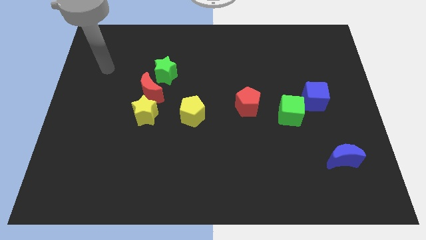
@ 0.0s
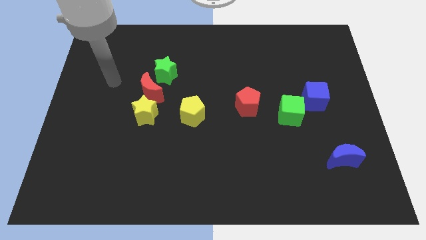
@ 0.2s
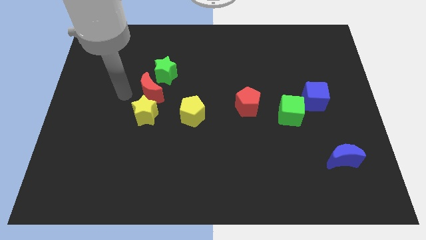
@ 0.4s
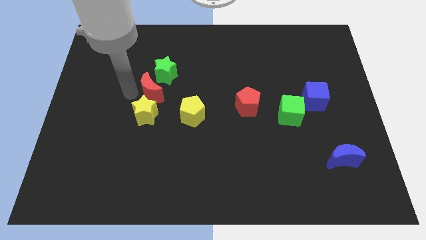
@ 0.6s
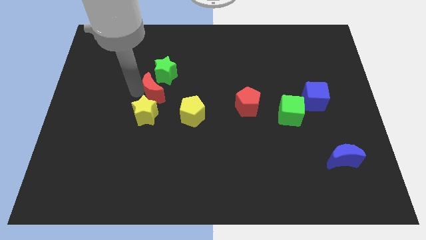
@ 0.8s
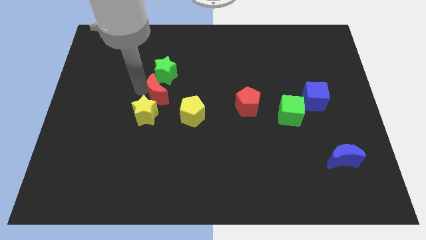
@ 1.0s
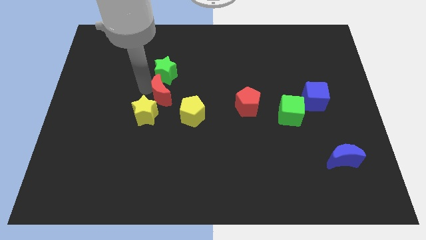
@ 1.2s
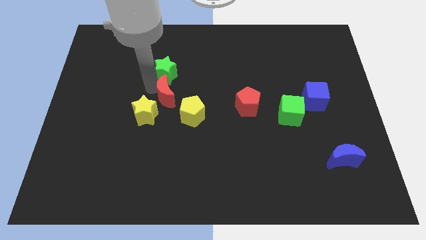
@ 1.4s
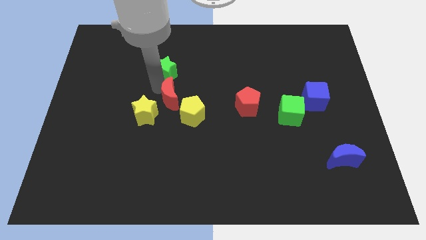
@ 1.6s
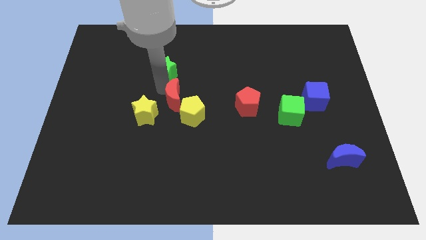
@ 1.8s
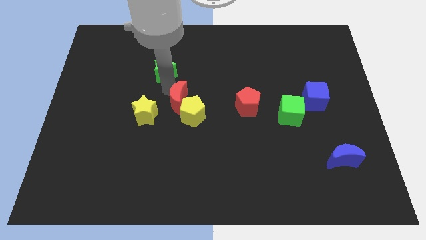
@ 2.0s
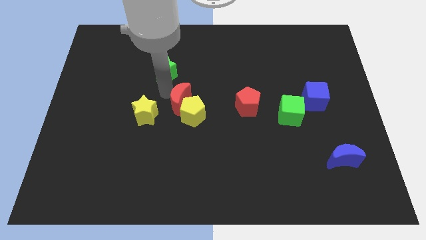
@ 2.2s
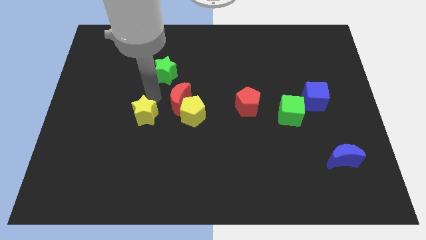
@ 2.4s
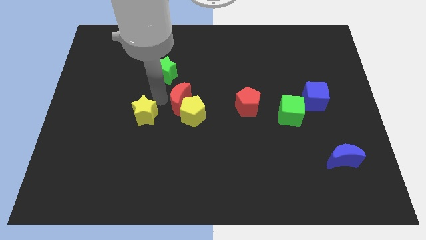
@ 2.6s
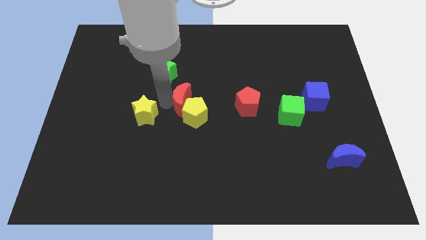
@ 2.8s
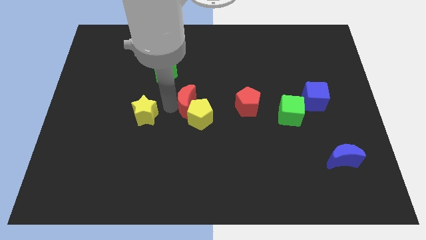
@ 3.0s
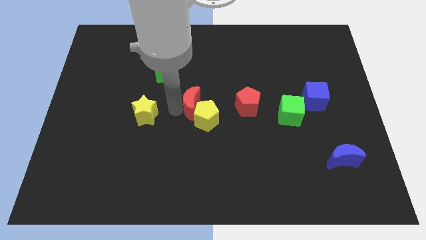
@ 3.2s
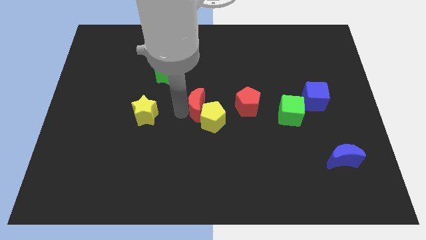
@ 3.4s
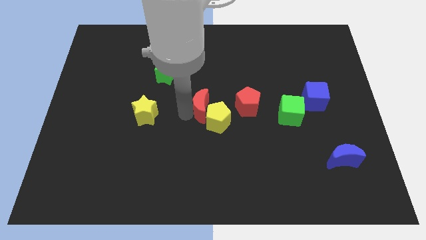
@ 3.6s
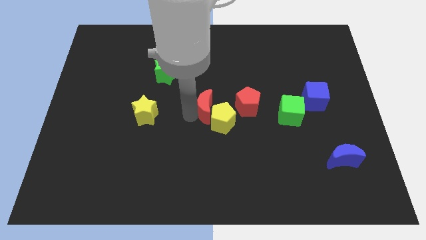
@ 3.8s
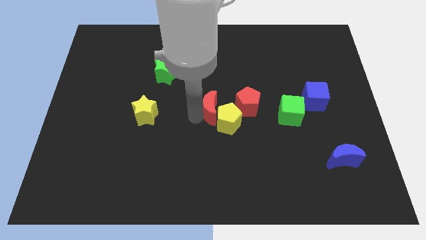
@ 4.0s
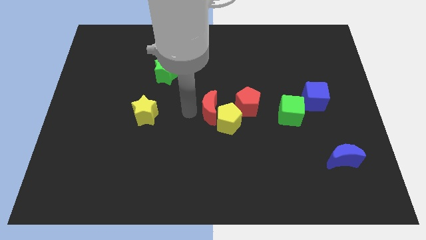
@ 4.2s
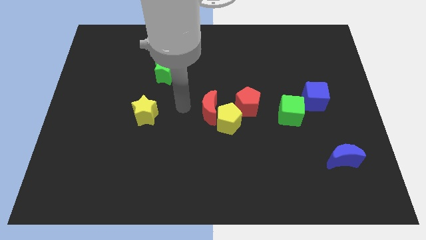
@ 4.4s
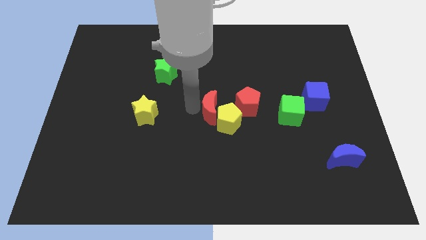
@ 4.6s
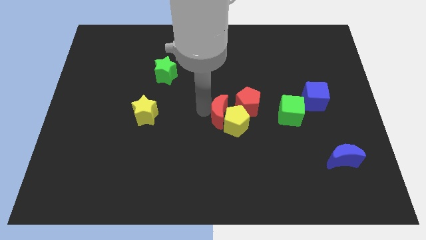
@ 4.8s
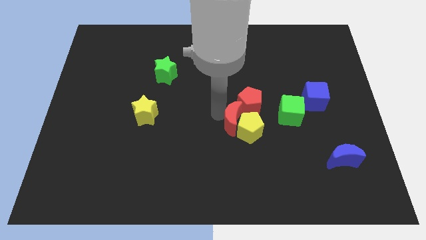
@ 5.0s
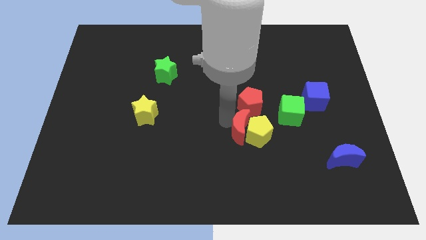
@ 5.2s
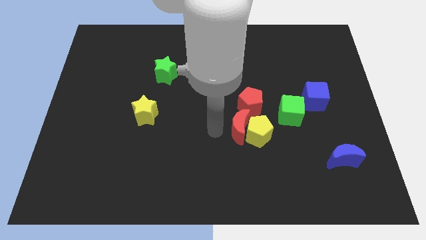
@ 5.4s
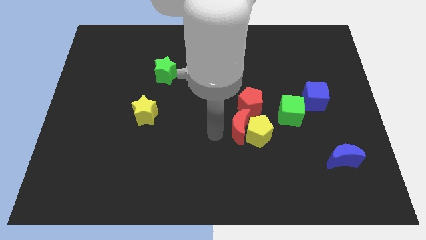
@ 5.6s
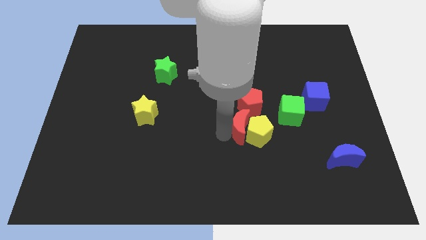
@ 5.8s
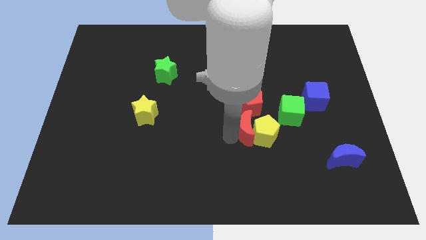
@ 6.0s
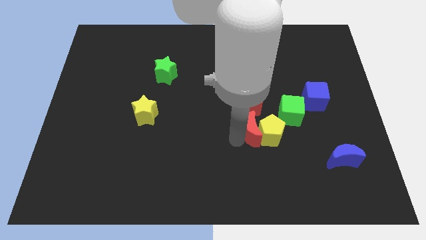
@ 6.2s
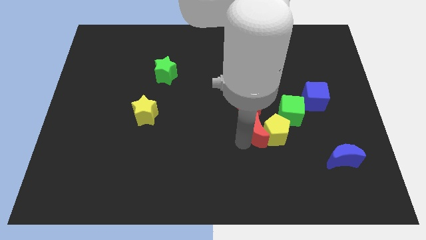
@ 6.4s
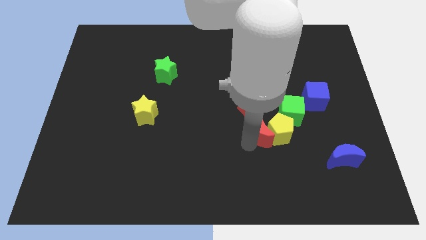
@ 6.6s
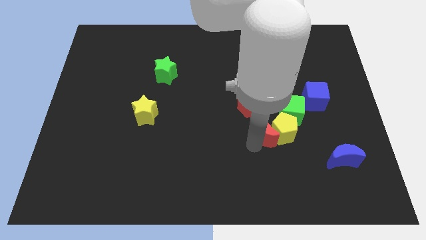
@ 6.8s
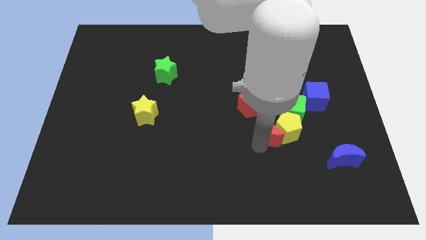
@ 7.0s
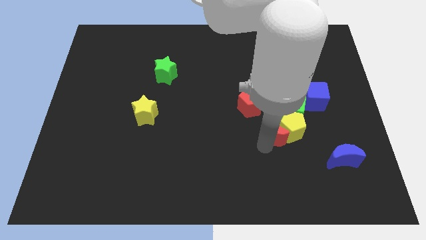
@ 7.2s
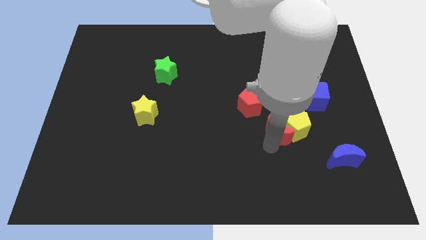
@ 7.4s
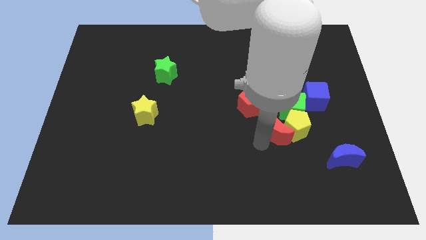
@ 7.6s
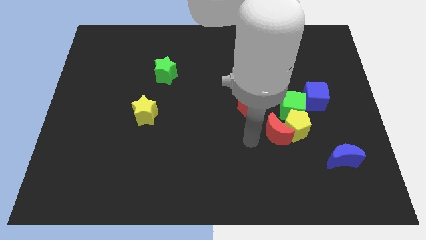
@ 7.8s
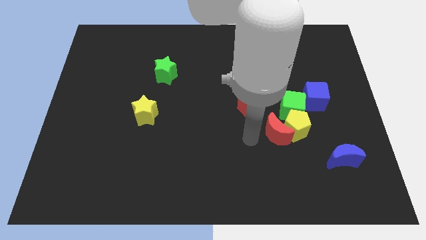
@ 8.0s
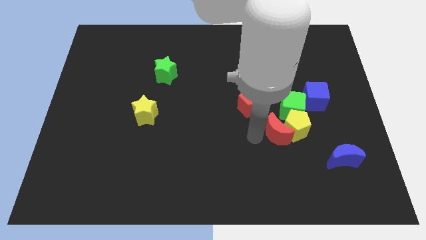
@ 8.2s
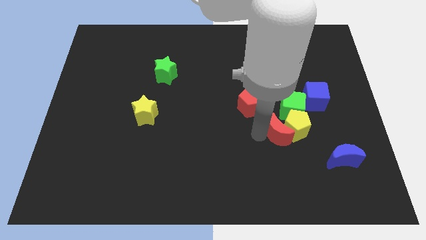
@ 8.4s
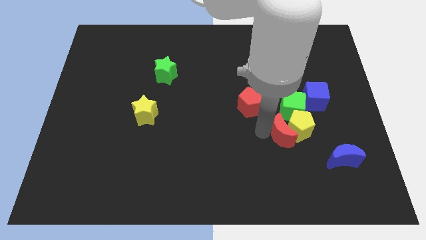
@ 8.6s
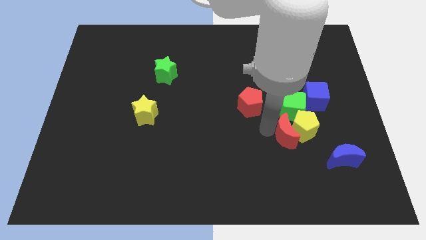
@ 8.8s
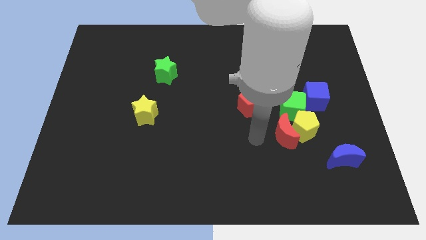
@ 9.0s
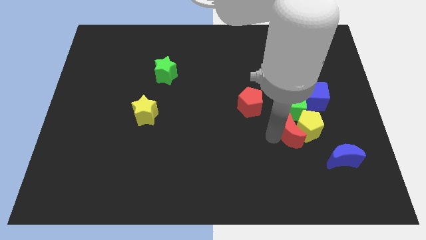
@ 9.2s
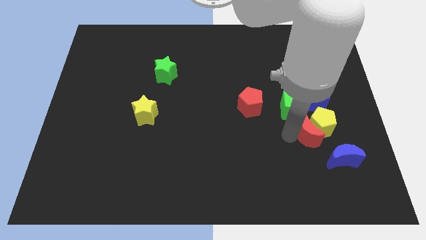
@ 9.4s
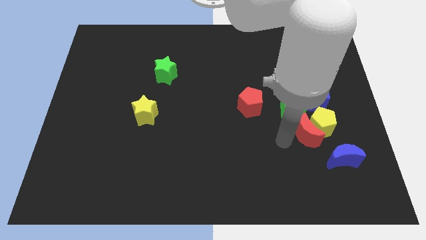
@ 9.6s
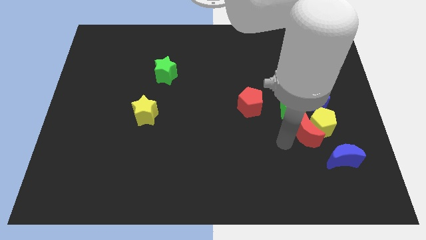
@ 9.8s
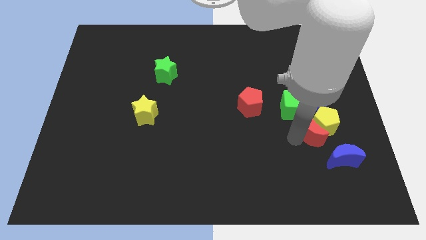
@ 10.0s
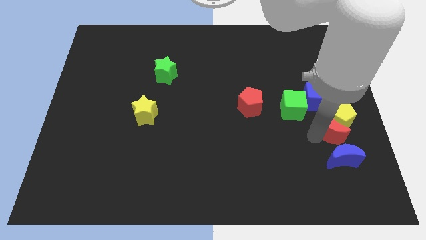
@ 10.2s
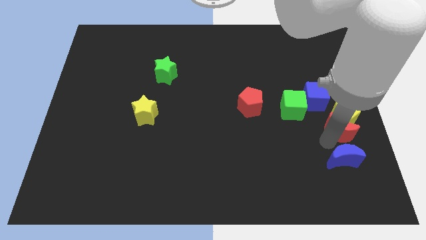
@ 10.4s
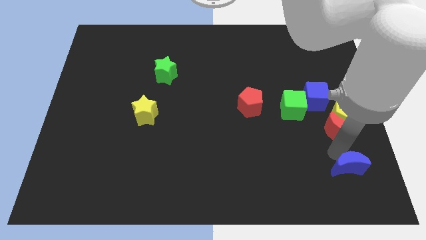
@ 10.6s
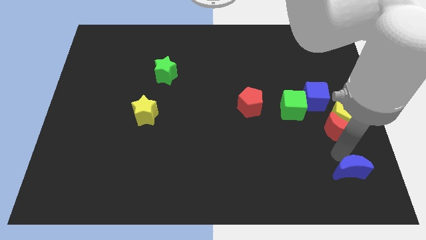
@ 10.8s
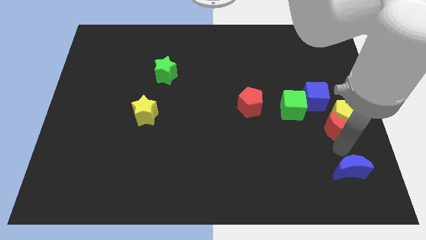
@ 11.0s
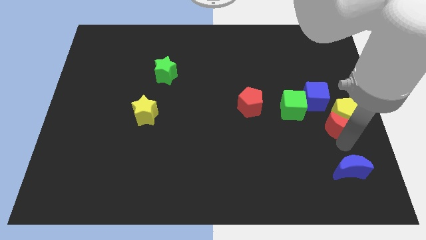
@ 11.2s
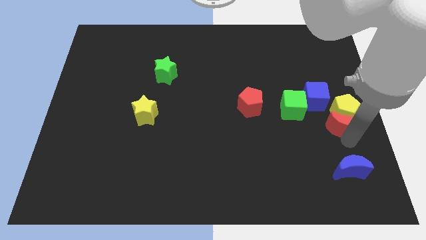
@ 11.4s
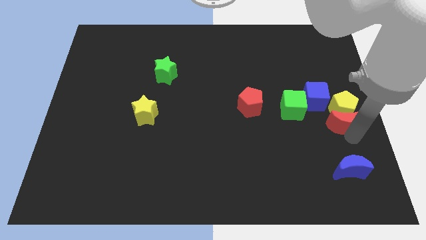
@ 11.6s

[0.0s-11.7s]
push the red moon right of the green cube

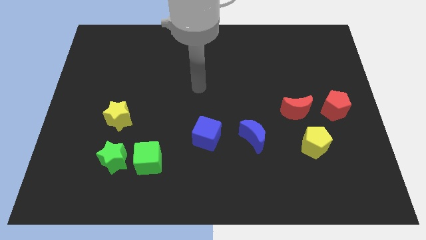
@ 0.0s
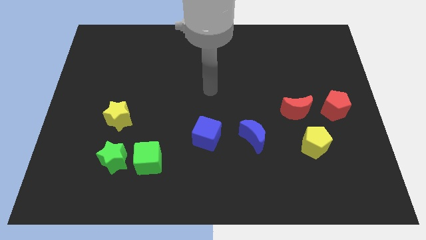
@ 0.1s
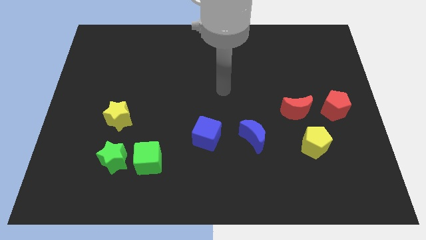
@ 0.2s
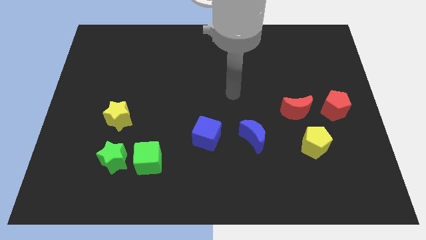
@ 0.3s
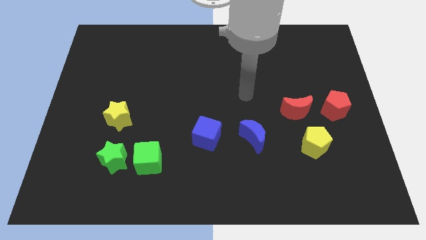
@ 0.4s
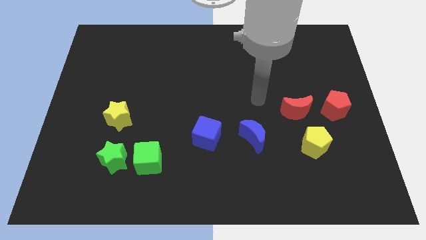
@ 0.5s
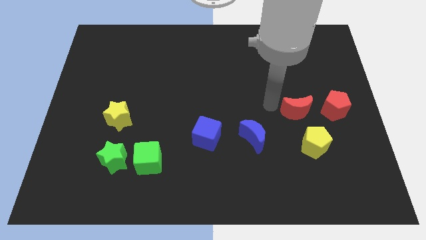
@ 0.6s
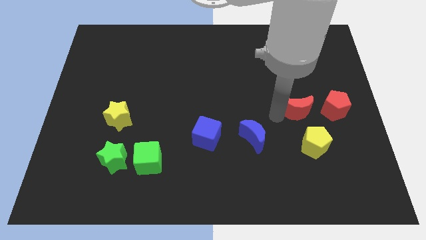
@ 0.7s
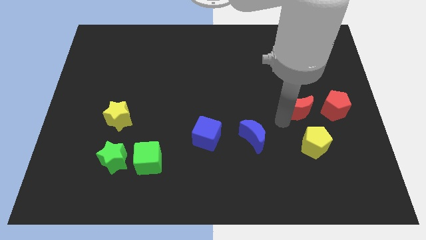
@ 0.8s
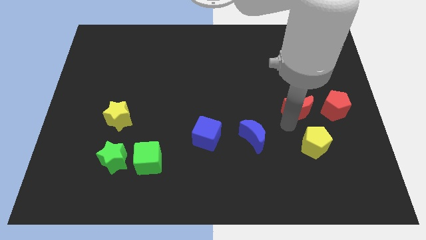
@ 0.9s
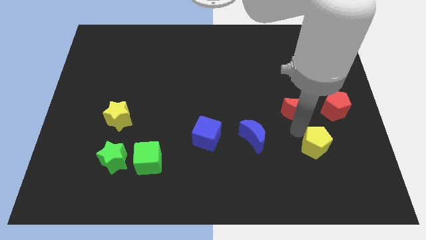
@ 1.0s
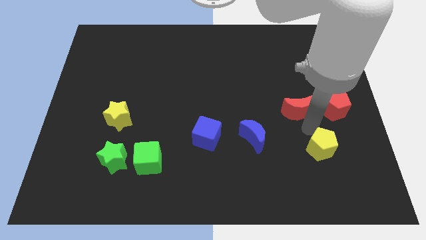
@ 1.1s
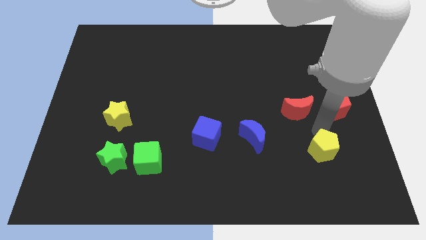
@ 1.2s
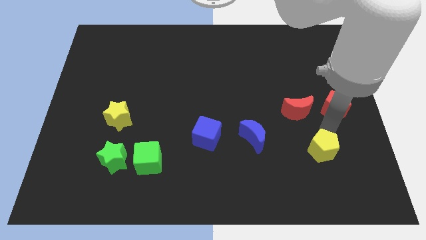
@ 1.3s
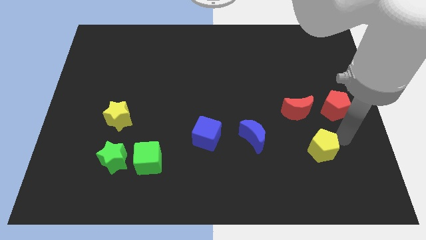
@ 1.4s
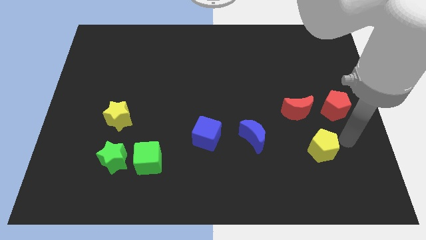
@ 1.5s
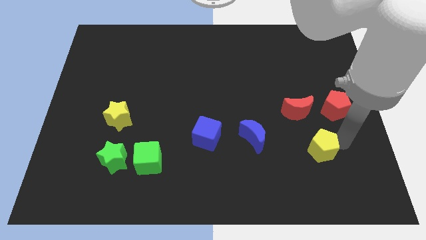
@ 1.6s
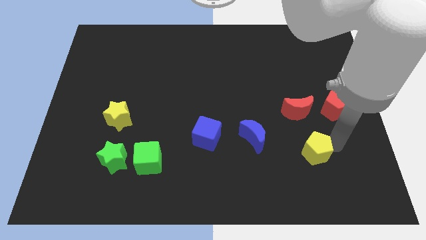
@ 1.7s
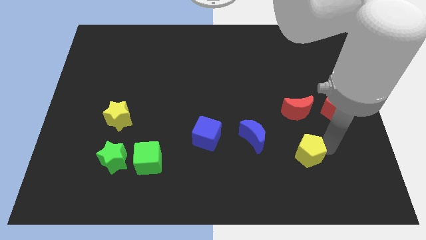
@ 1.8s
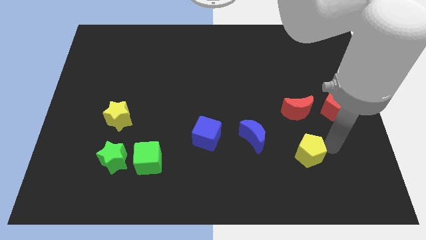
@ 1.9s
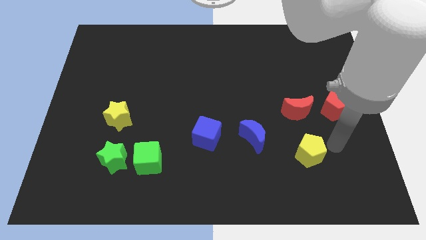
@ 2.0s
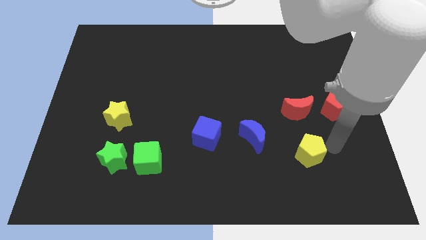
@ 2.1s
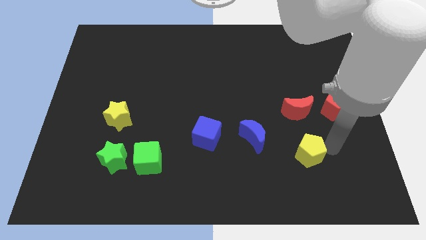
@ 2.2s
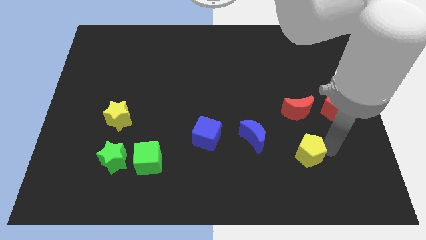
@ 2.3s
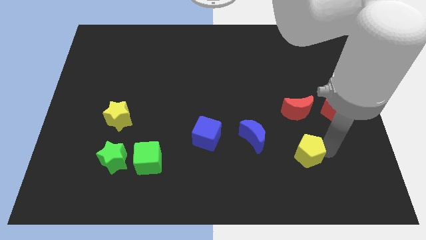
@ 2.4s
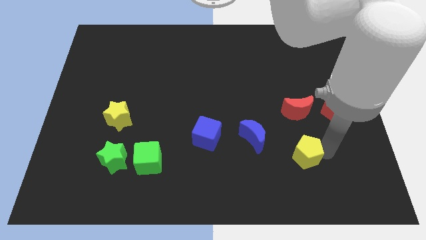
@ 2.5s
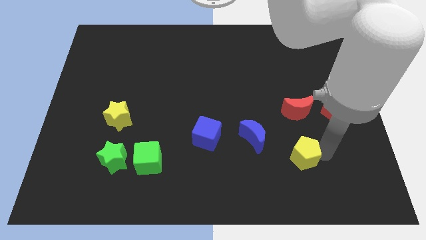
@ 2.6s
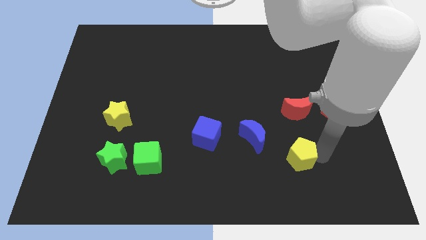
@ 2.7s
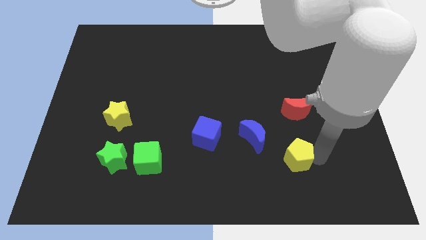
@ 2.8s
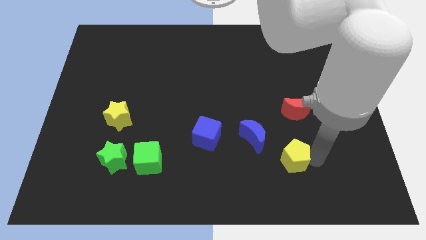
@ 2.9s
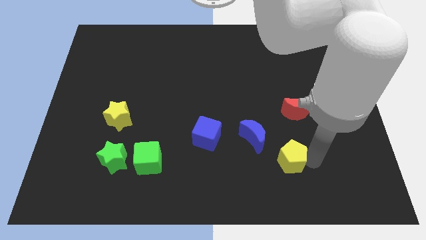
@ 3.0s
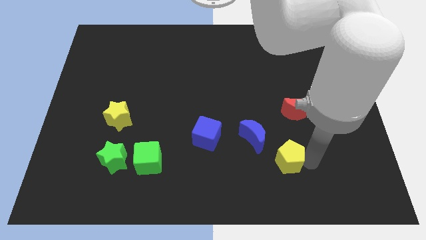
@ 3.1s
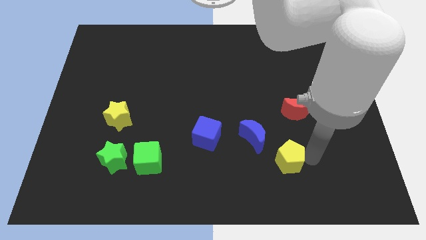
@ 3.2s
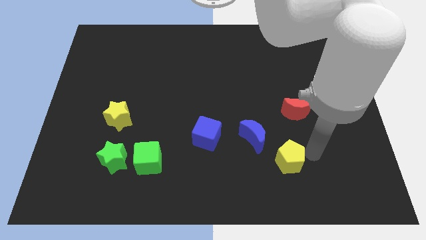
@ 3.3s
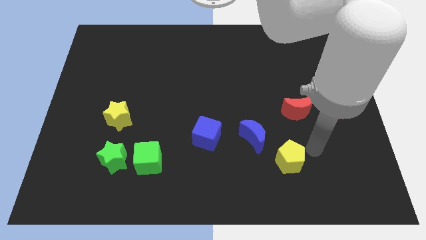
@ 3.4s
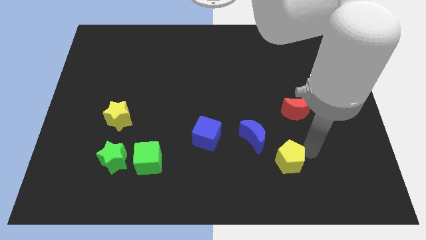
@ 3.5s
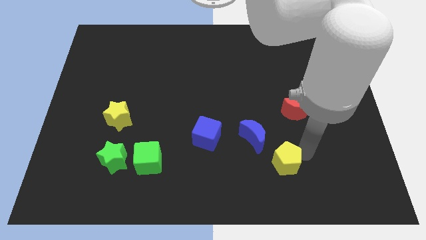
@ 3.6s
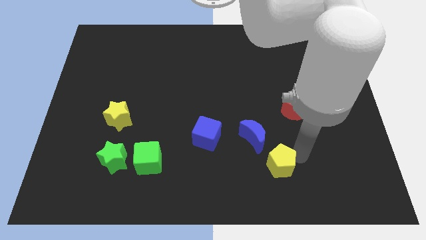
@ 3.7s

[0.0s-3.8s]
slide the yellow pentagon to the bottom of the blue moon
